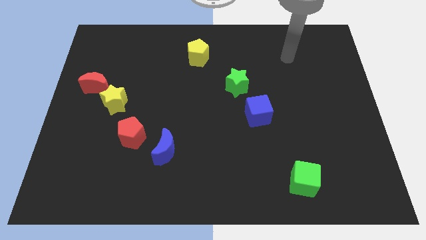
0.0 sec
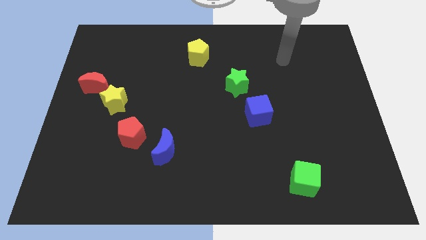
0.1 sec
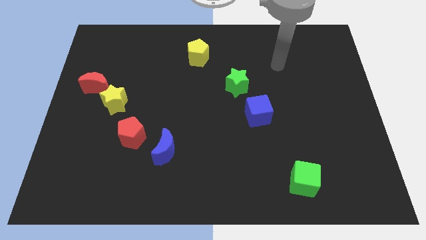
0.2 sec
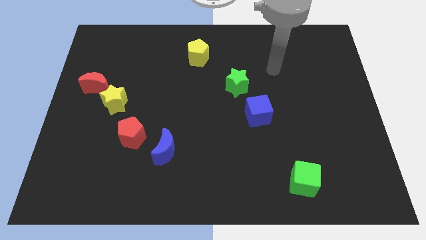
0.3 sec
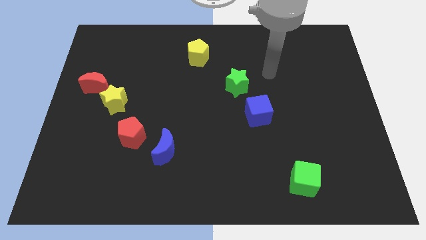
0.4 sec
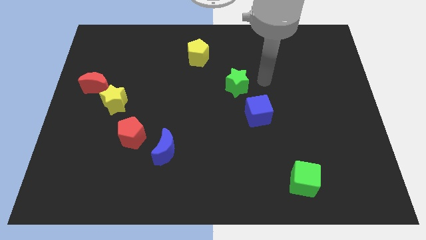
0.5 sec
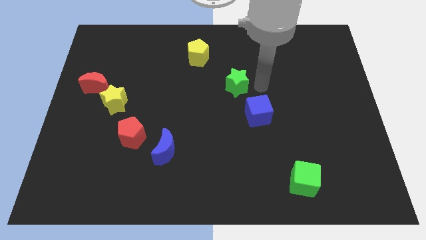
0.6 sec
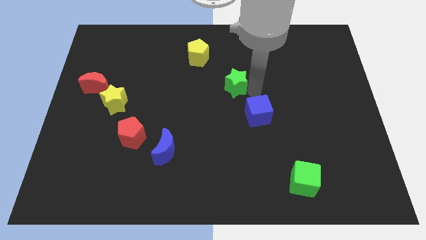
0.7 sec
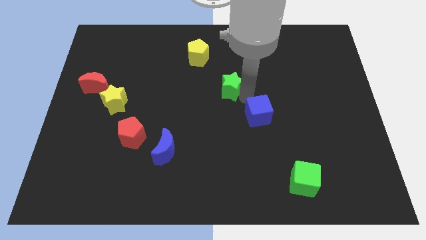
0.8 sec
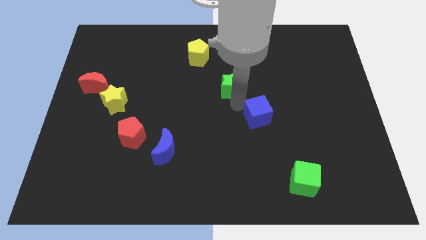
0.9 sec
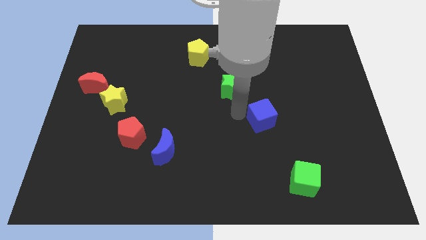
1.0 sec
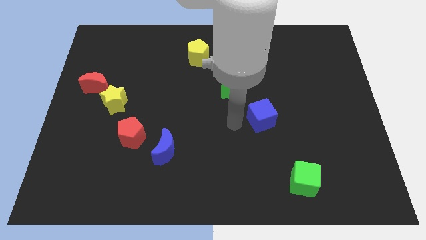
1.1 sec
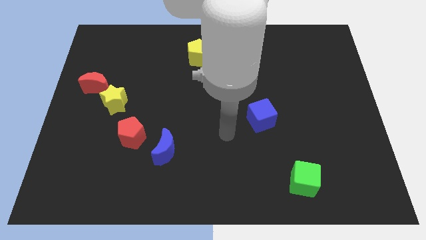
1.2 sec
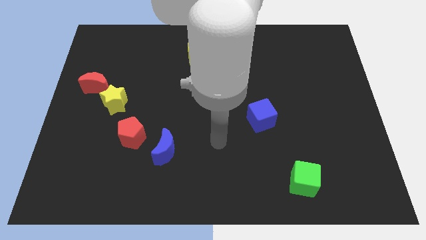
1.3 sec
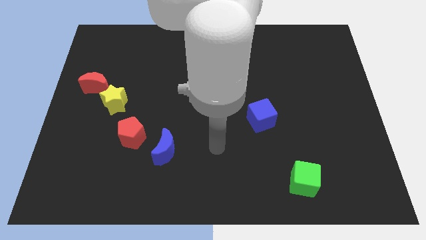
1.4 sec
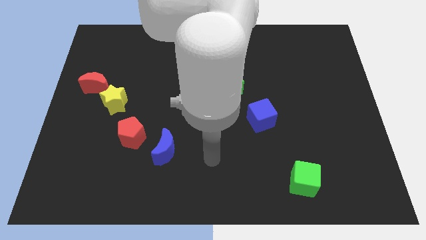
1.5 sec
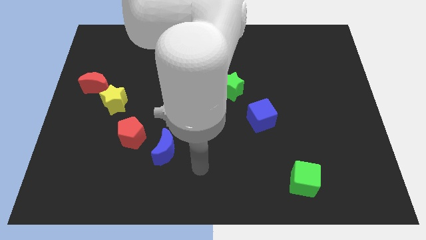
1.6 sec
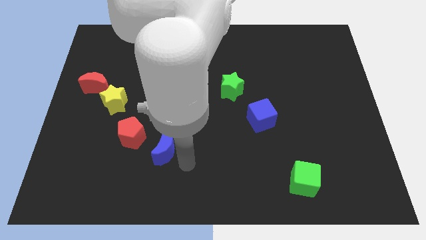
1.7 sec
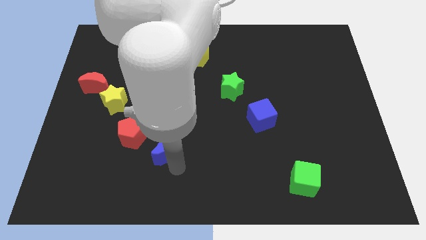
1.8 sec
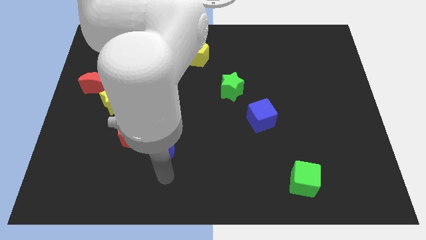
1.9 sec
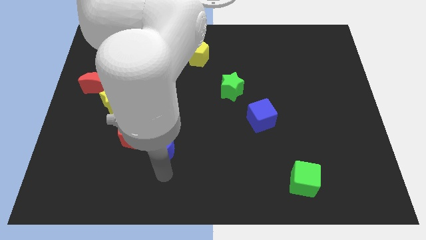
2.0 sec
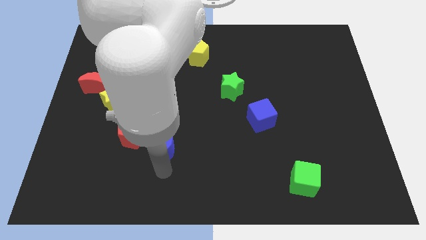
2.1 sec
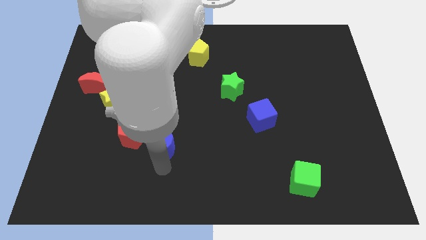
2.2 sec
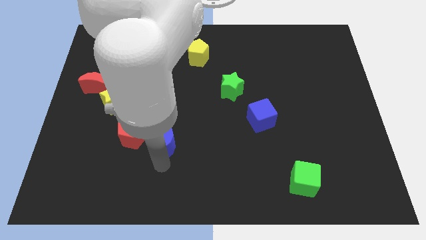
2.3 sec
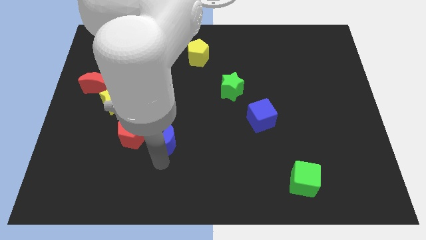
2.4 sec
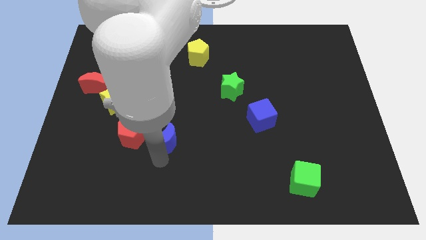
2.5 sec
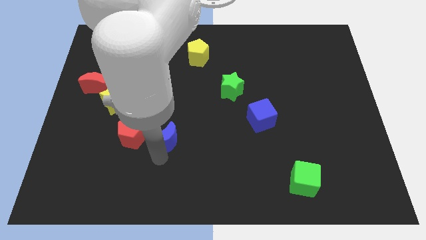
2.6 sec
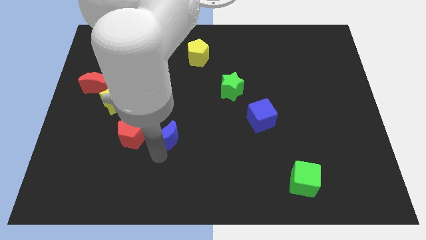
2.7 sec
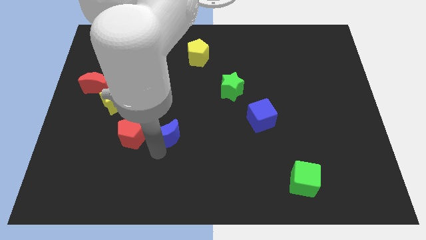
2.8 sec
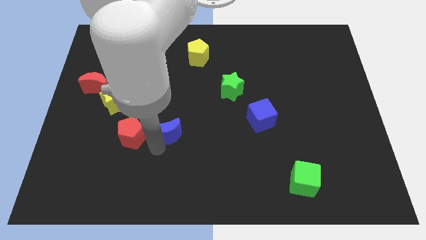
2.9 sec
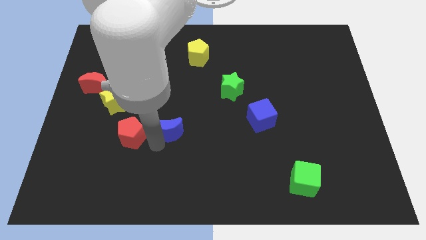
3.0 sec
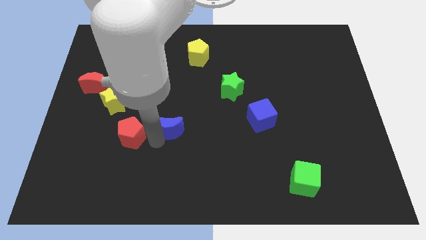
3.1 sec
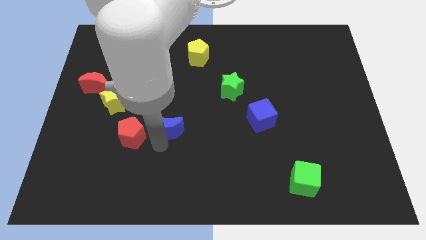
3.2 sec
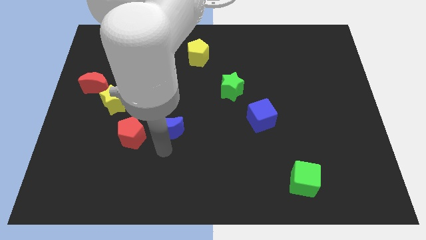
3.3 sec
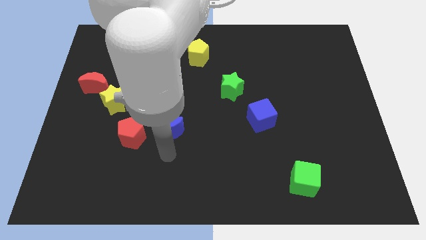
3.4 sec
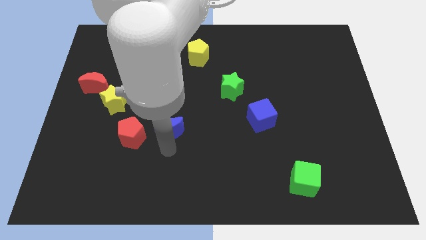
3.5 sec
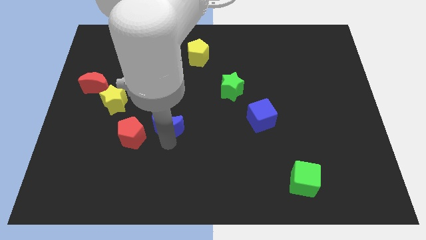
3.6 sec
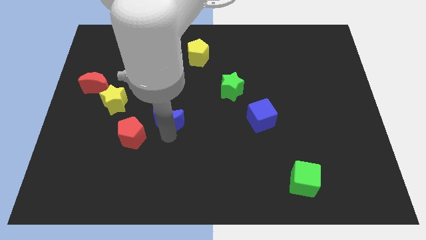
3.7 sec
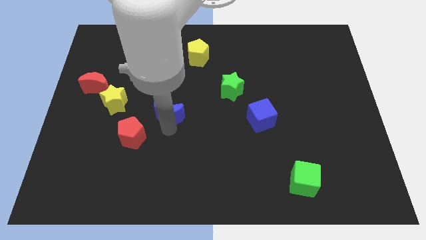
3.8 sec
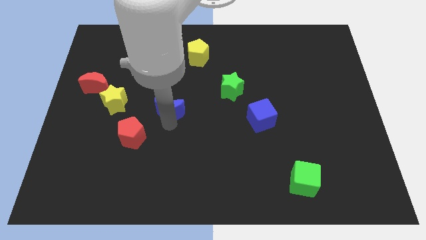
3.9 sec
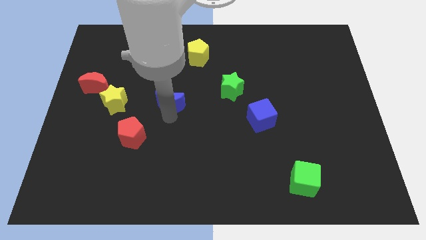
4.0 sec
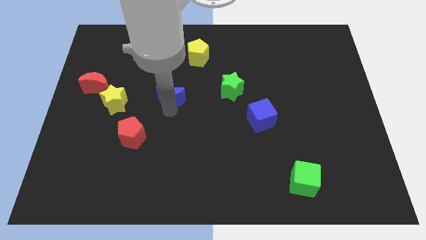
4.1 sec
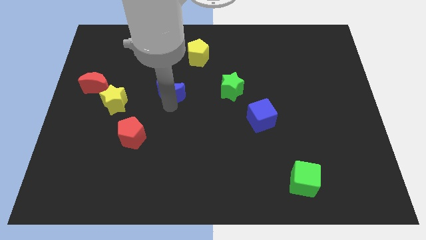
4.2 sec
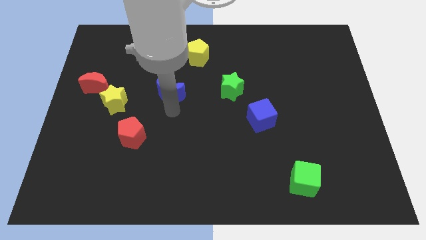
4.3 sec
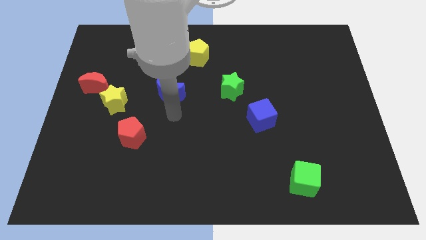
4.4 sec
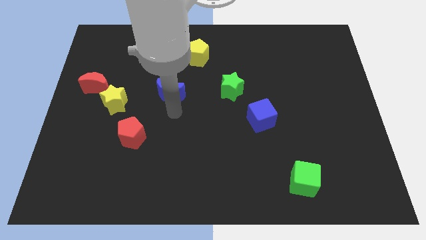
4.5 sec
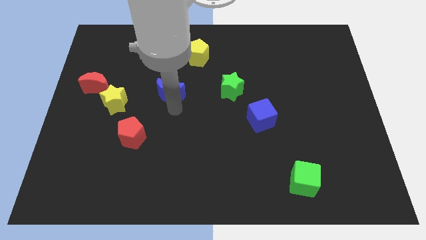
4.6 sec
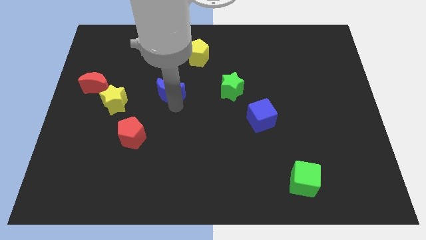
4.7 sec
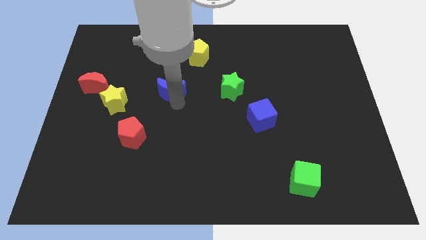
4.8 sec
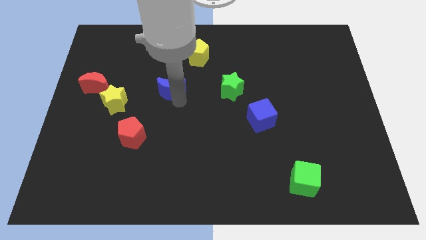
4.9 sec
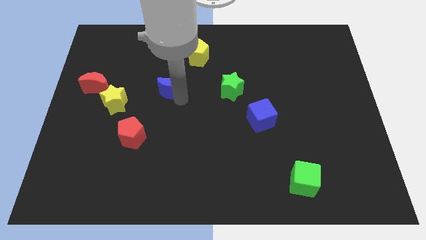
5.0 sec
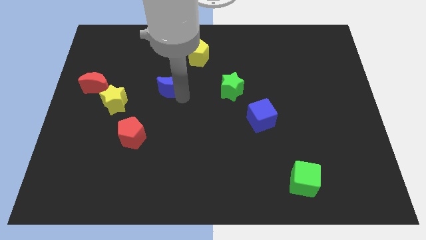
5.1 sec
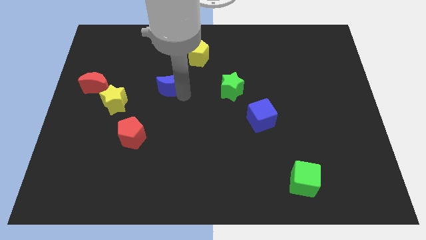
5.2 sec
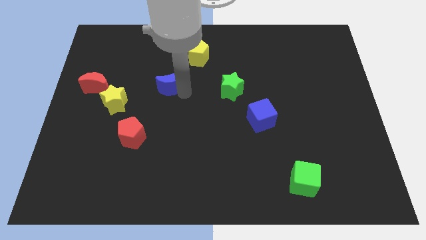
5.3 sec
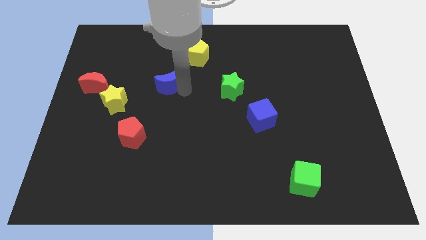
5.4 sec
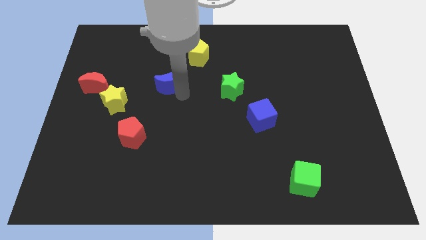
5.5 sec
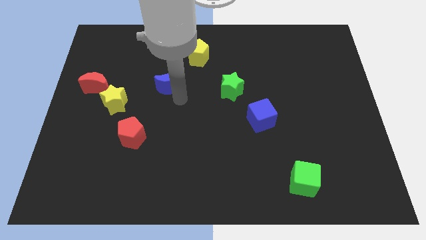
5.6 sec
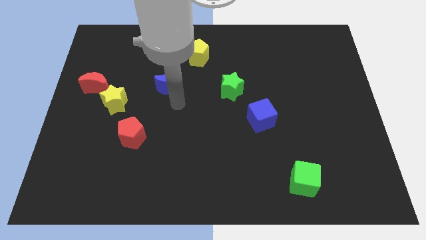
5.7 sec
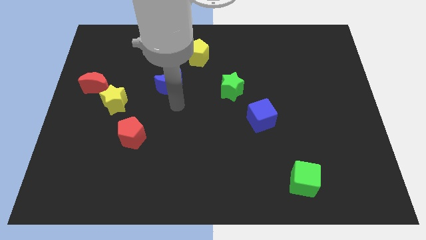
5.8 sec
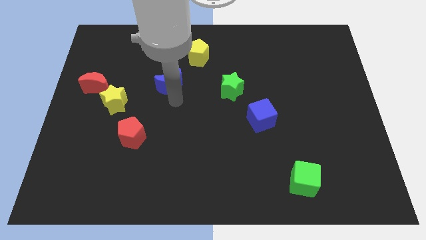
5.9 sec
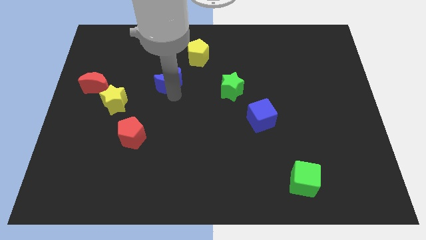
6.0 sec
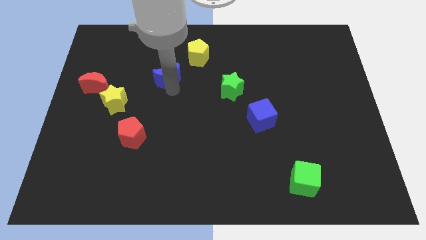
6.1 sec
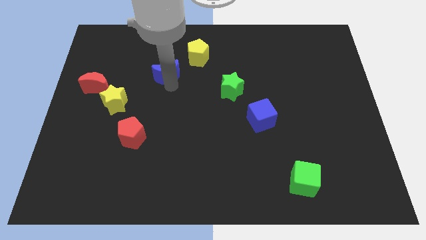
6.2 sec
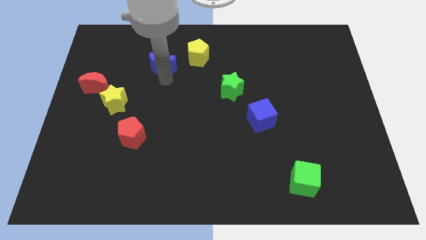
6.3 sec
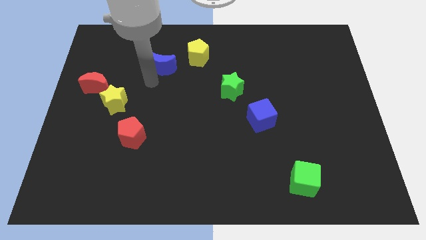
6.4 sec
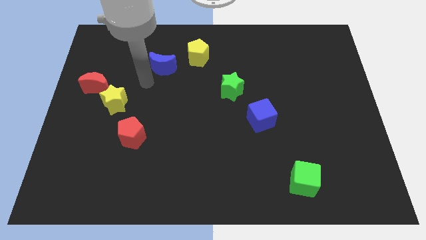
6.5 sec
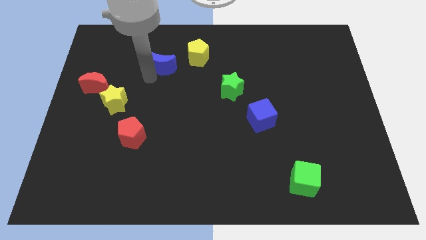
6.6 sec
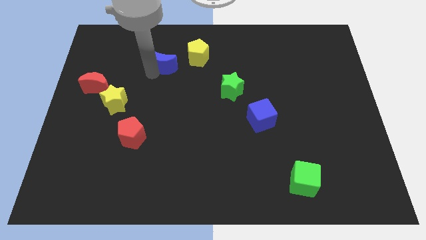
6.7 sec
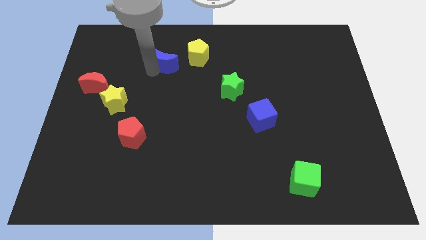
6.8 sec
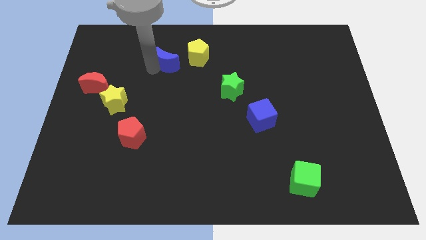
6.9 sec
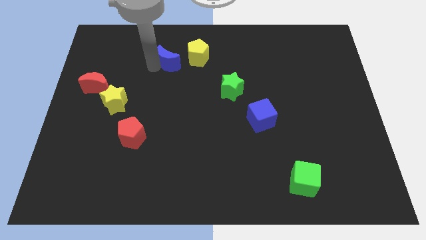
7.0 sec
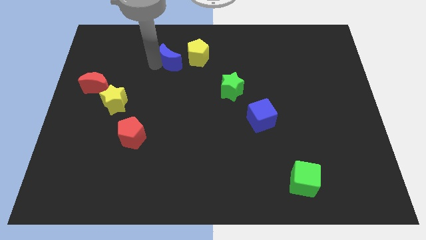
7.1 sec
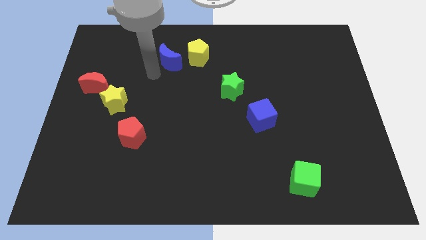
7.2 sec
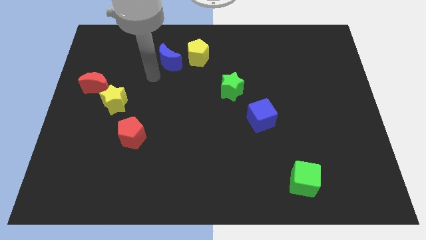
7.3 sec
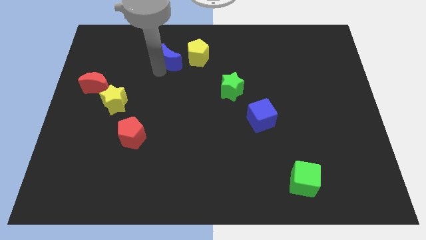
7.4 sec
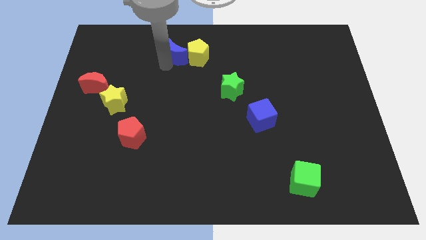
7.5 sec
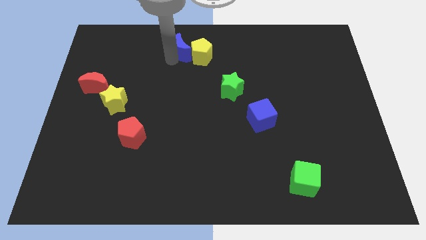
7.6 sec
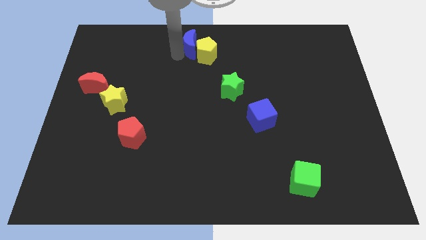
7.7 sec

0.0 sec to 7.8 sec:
slide the blue moon to the towards your base
